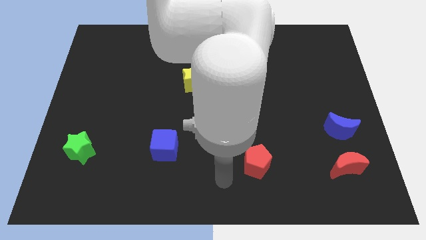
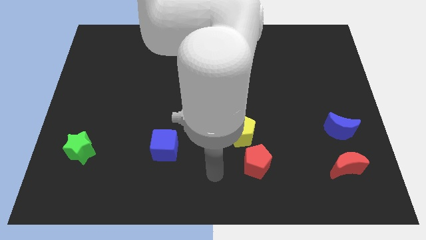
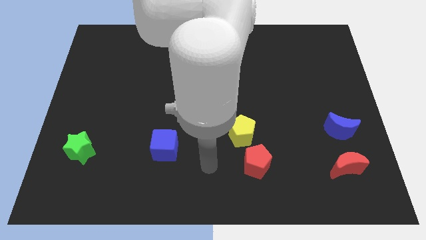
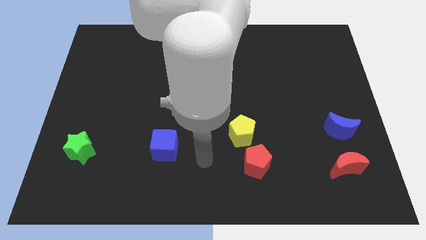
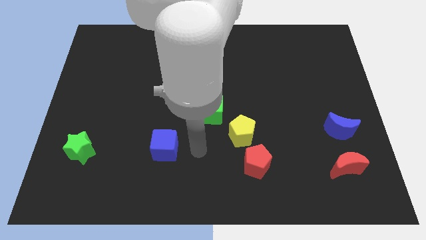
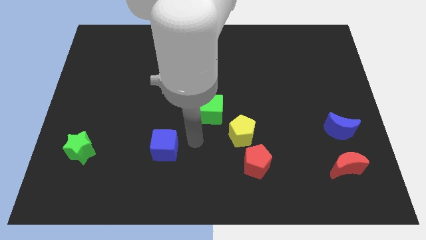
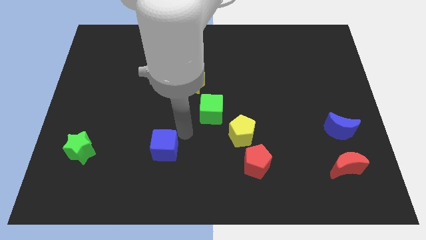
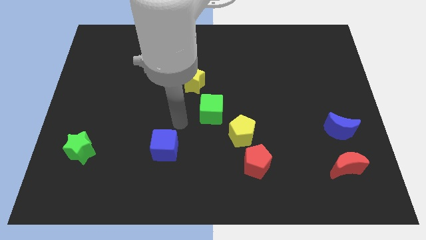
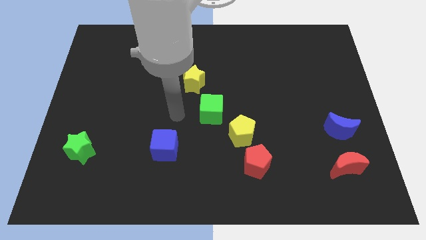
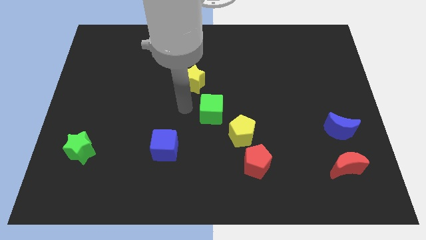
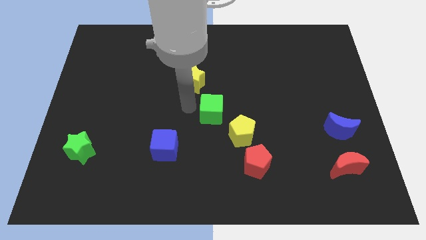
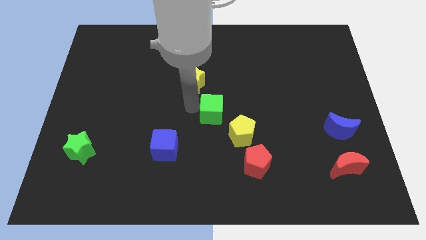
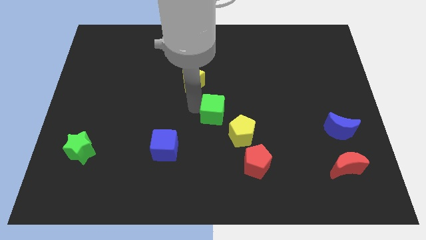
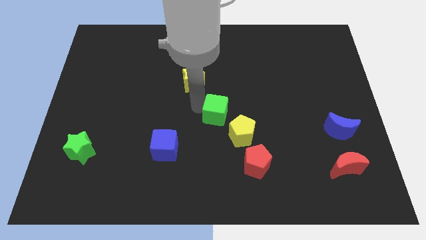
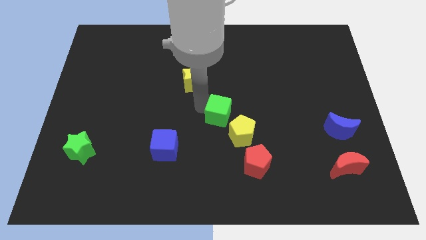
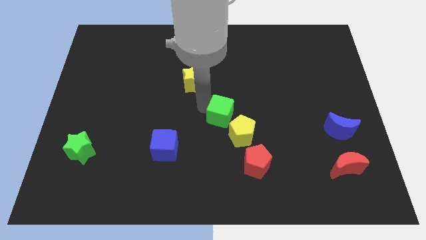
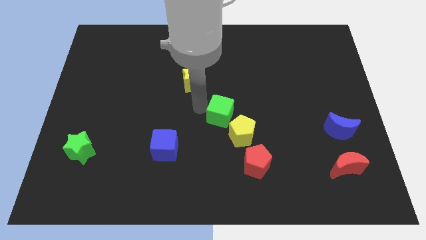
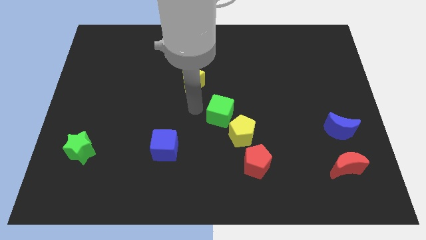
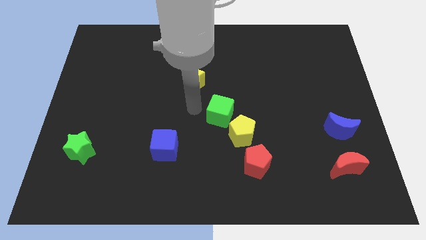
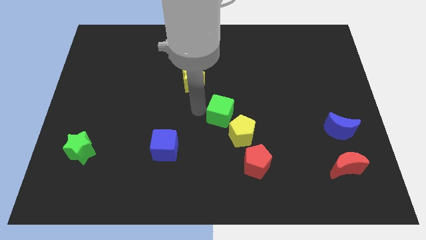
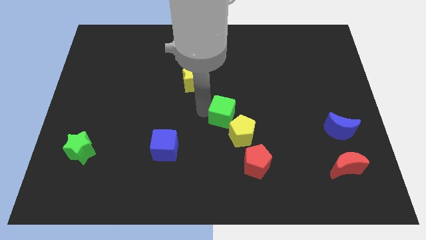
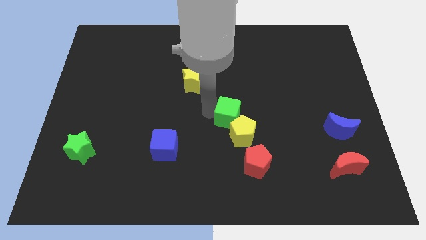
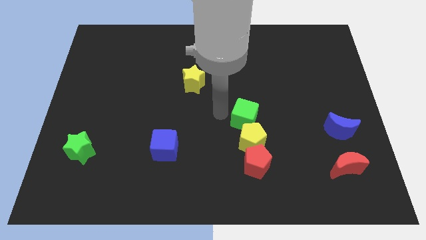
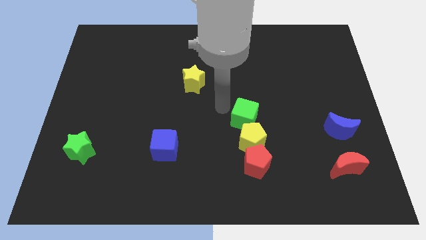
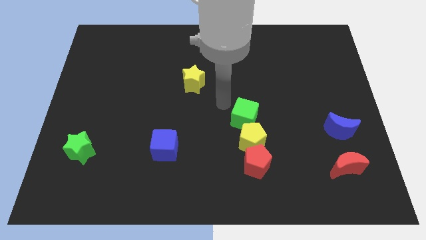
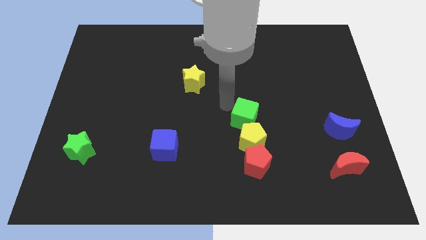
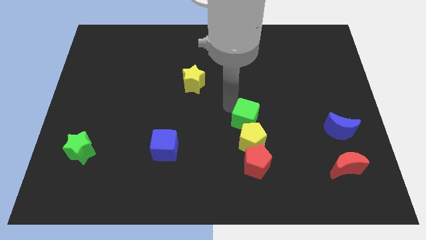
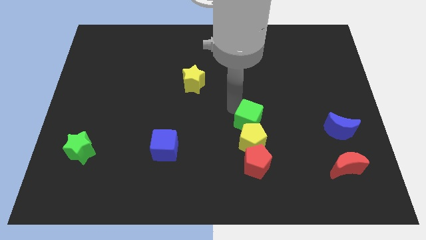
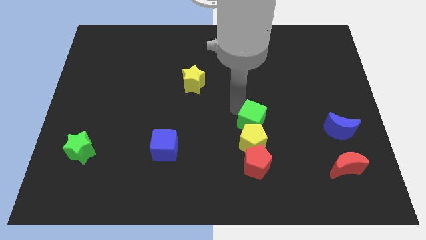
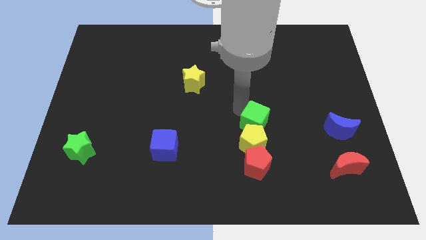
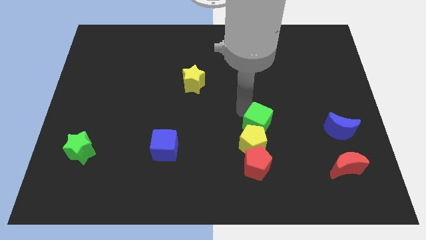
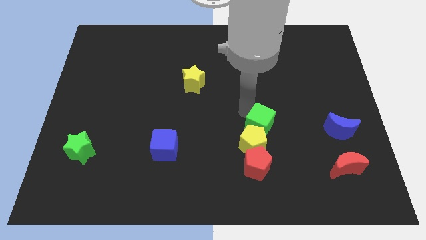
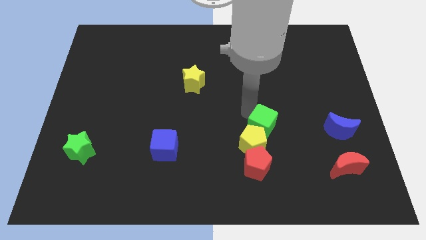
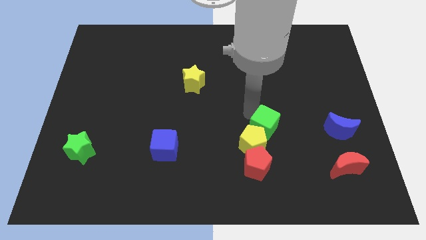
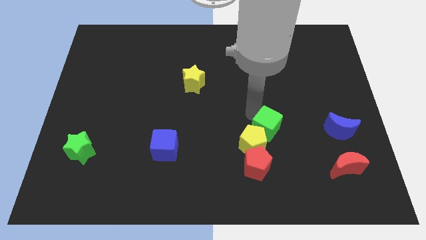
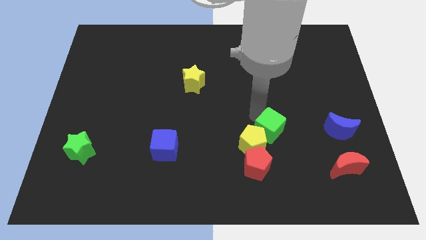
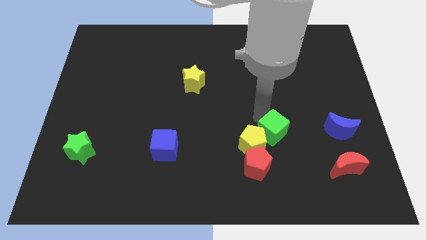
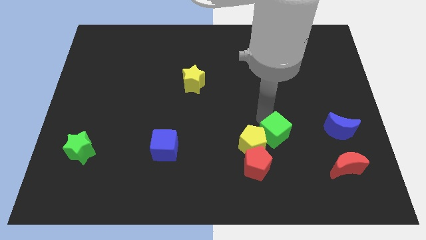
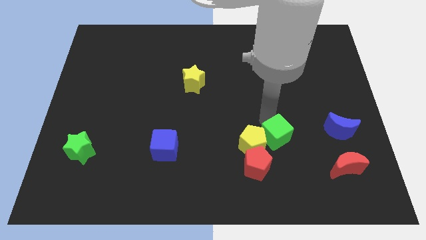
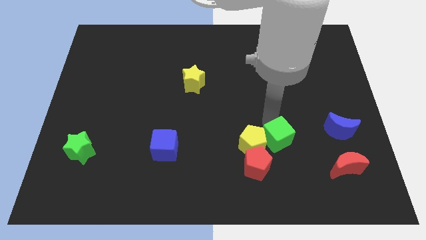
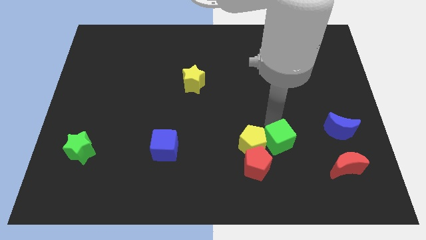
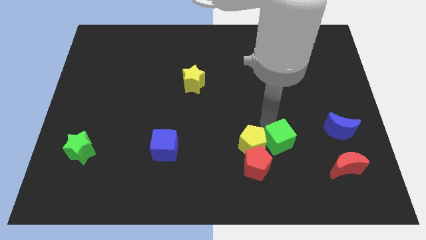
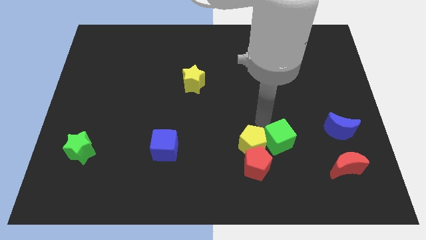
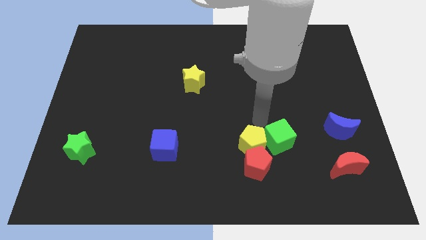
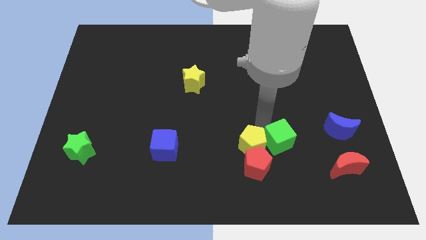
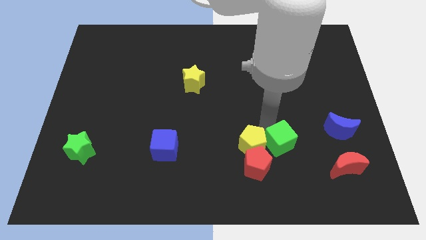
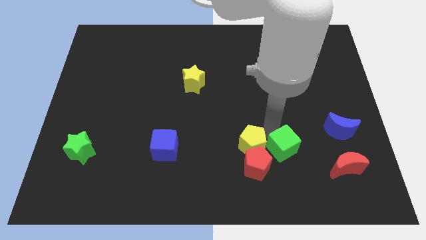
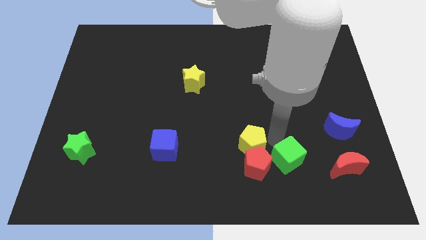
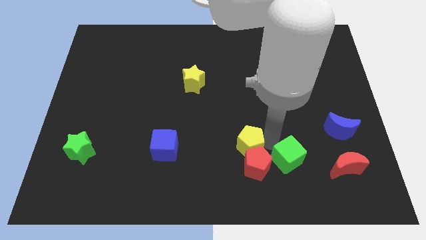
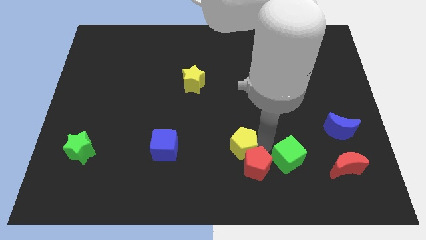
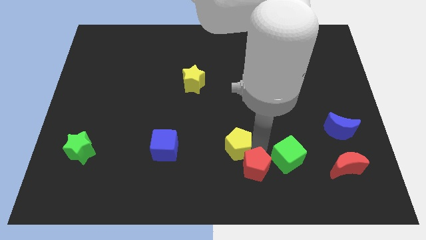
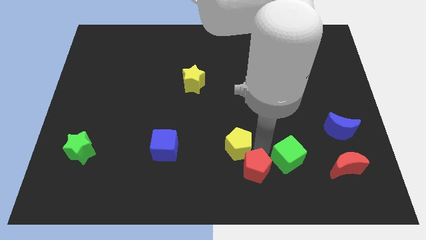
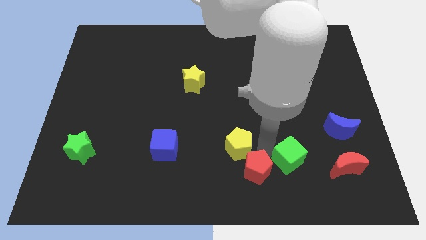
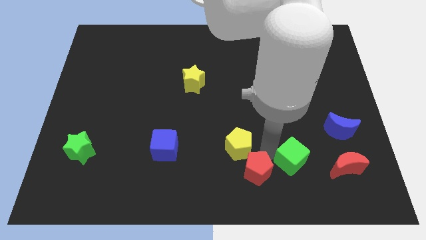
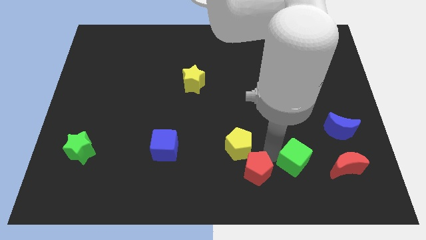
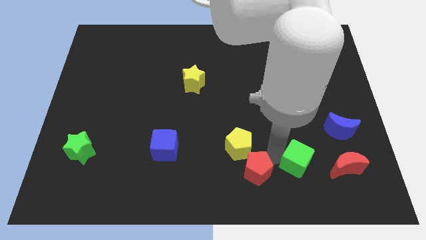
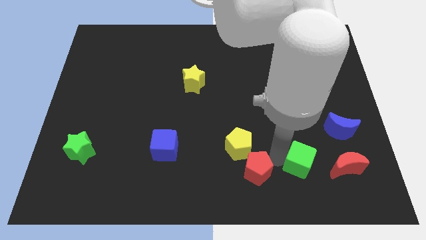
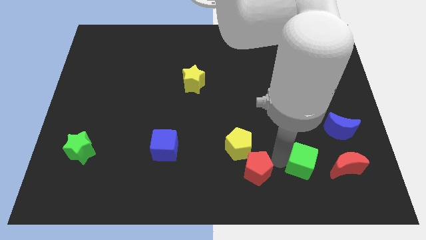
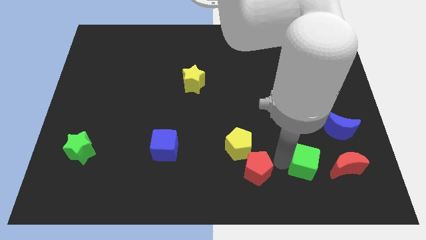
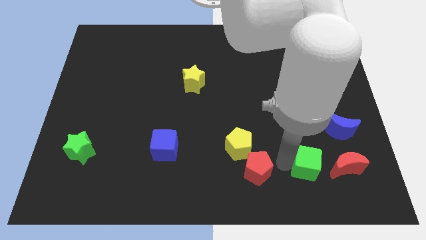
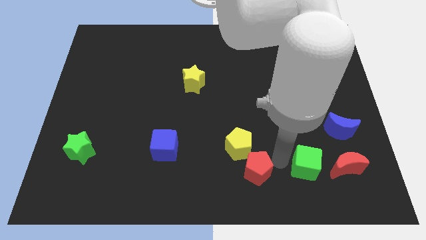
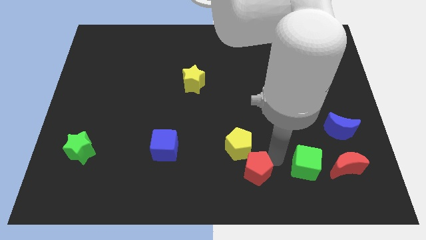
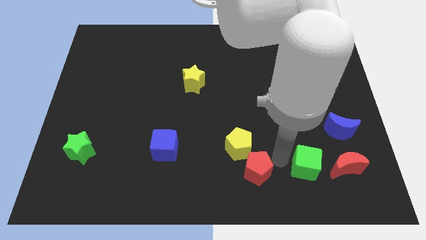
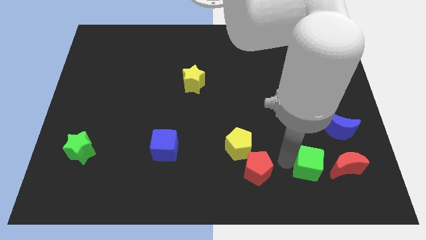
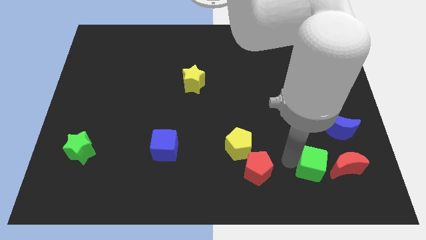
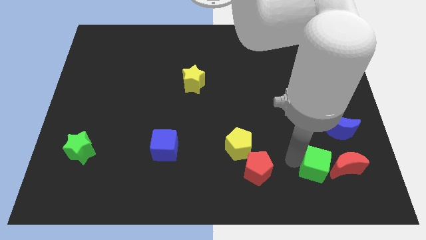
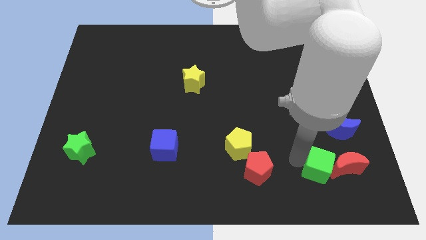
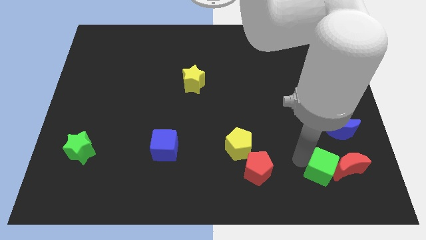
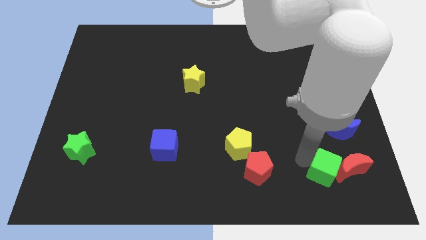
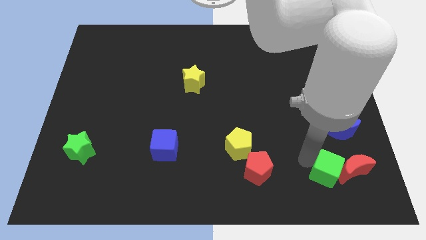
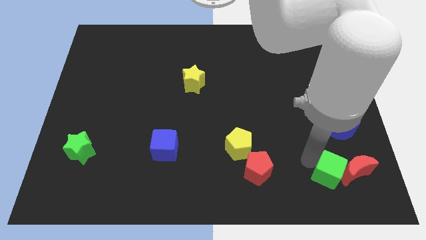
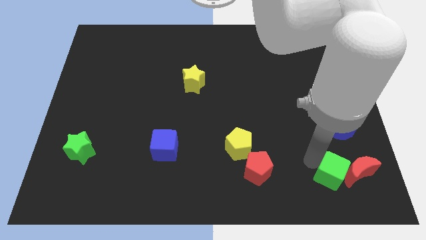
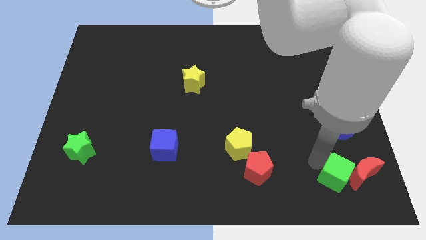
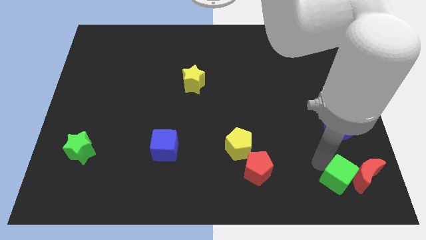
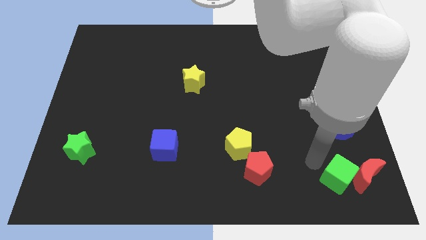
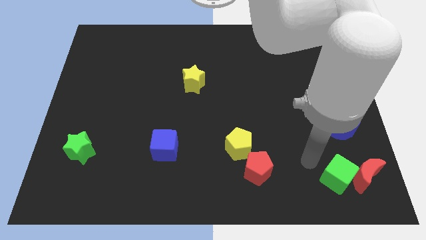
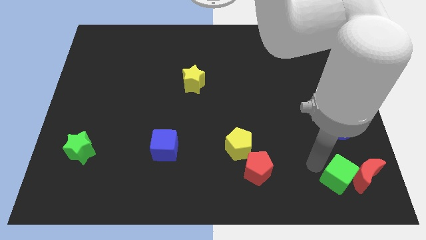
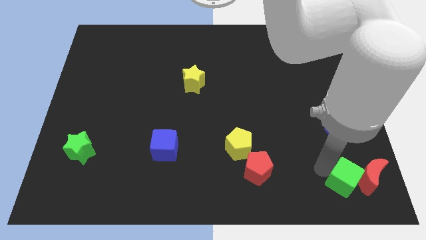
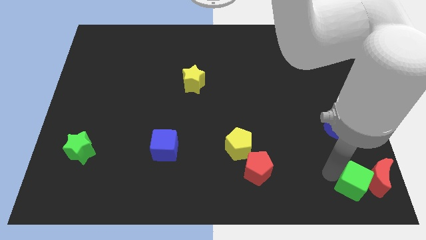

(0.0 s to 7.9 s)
move the green cube to the bottom right of the board
